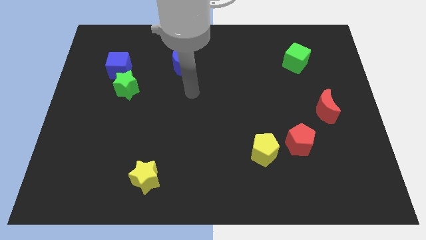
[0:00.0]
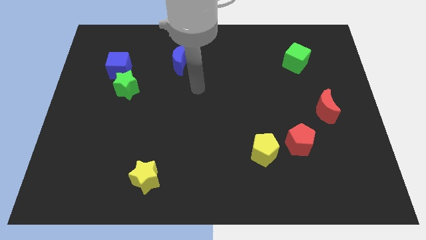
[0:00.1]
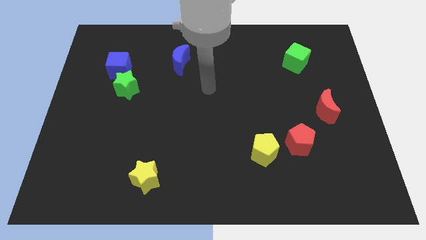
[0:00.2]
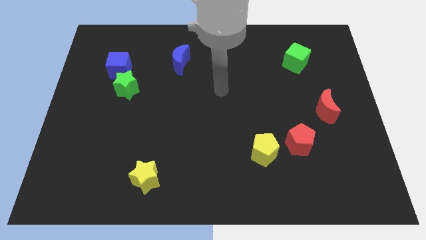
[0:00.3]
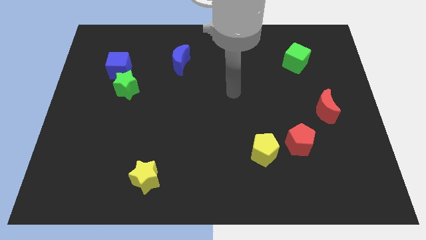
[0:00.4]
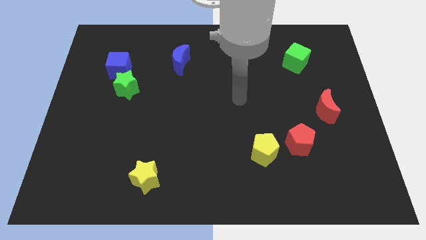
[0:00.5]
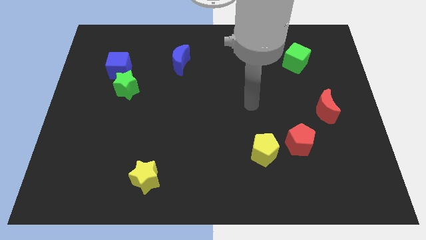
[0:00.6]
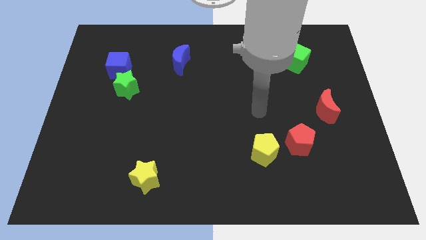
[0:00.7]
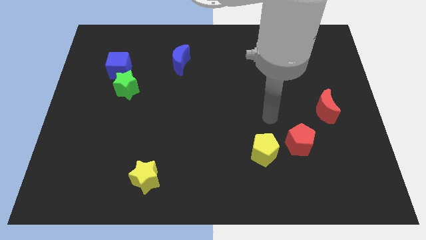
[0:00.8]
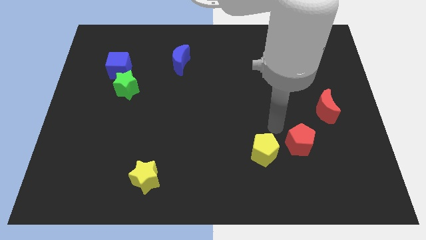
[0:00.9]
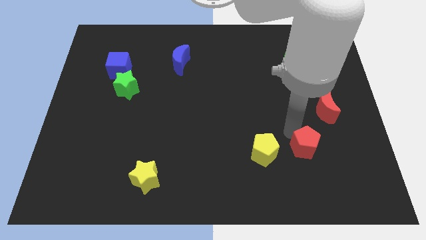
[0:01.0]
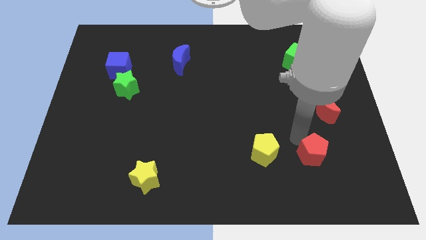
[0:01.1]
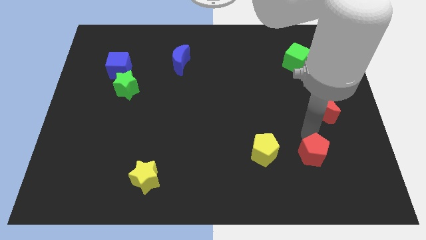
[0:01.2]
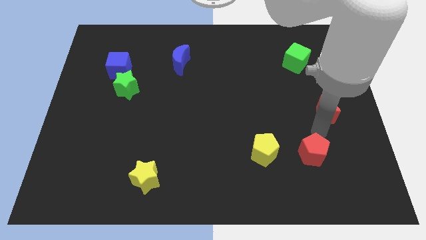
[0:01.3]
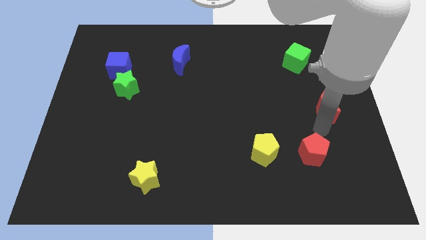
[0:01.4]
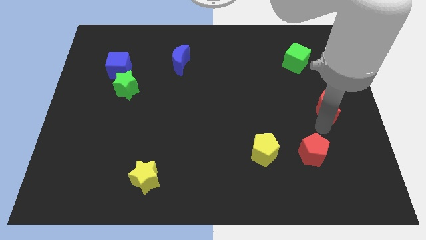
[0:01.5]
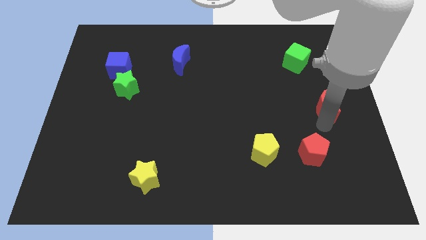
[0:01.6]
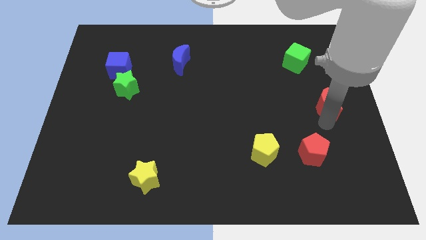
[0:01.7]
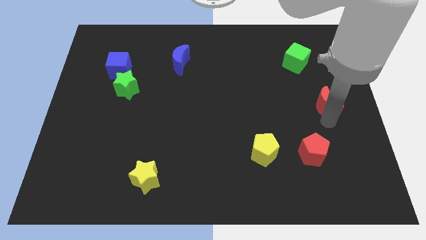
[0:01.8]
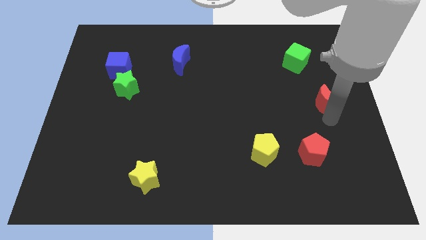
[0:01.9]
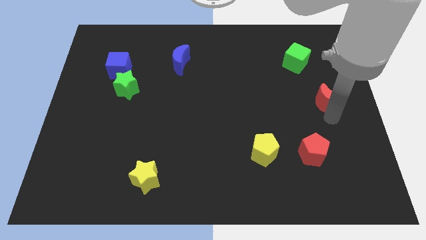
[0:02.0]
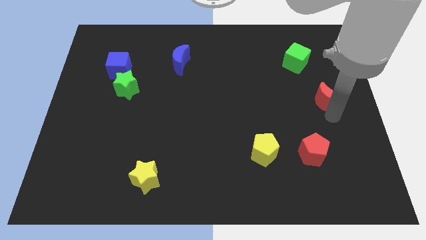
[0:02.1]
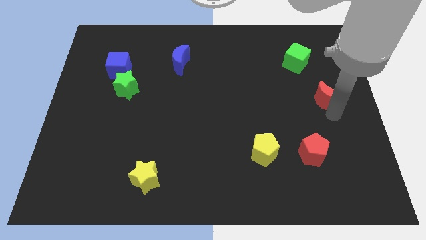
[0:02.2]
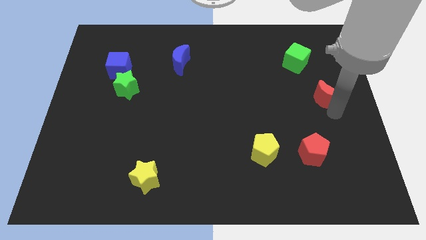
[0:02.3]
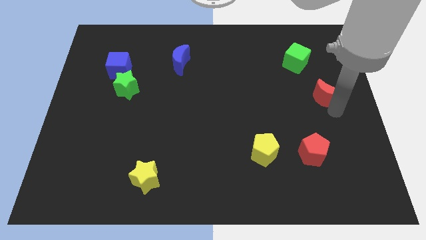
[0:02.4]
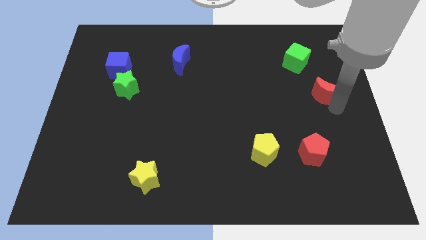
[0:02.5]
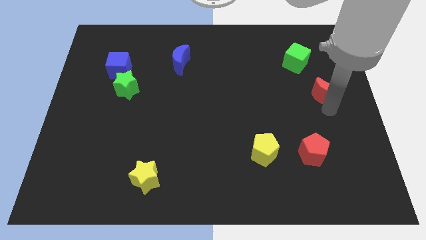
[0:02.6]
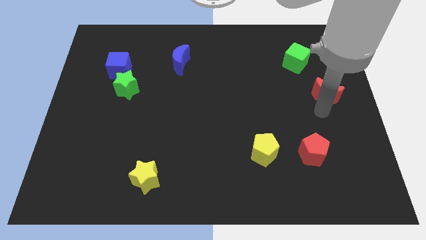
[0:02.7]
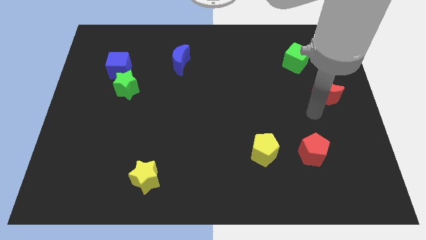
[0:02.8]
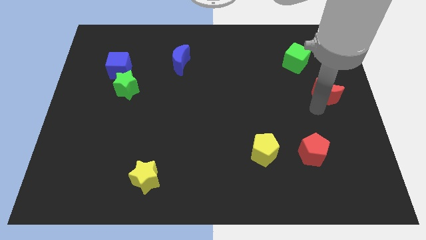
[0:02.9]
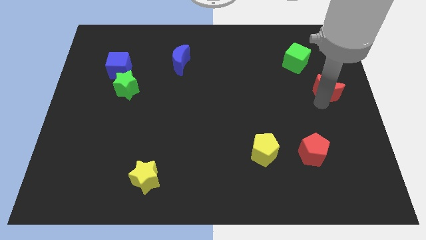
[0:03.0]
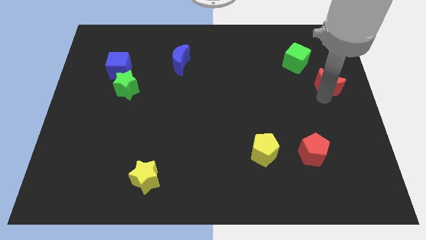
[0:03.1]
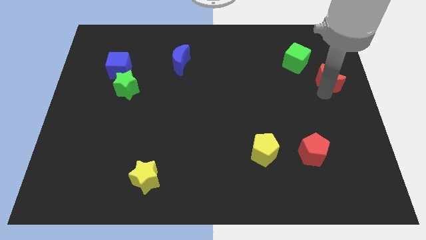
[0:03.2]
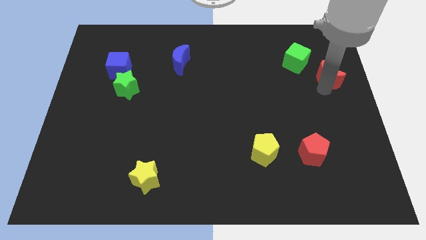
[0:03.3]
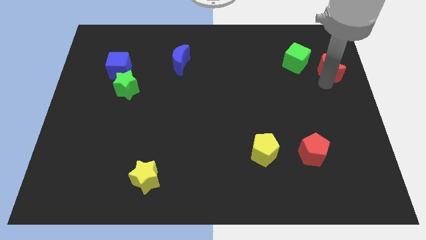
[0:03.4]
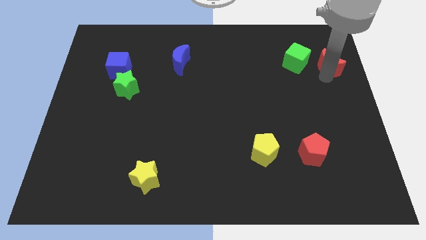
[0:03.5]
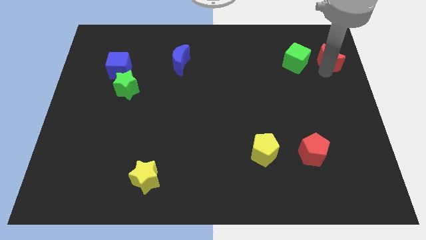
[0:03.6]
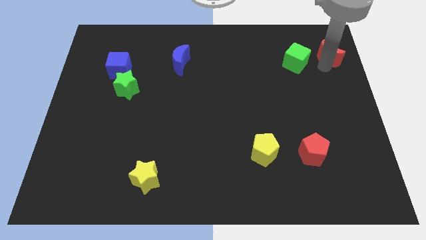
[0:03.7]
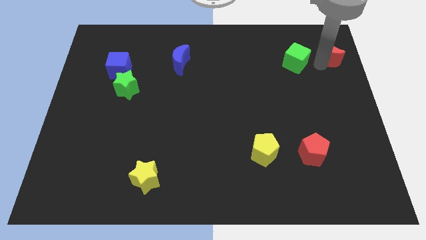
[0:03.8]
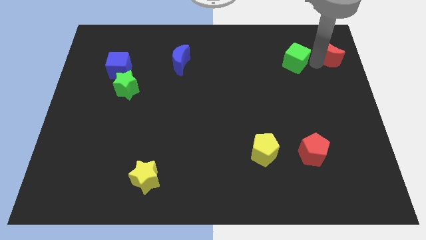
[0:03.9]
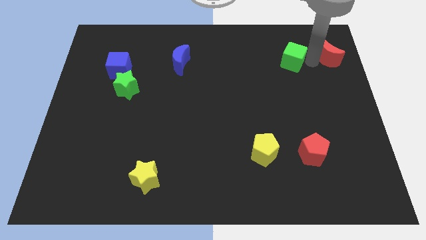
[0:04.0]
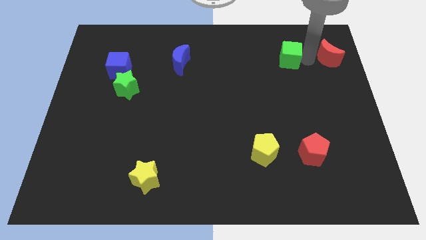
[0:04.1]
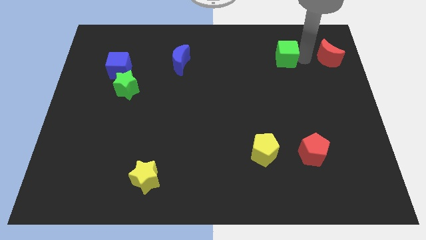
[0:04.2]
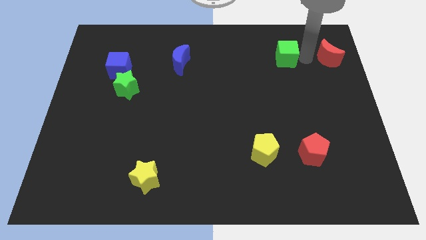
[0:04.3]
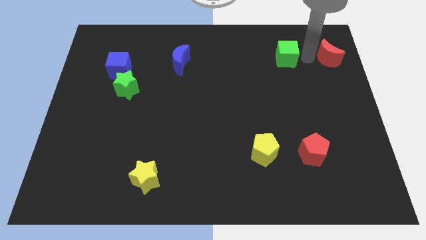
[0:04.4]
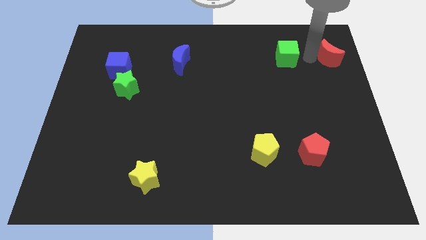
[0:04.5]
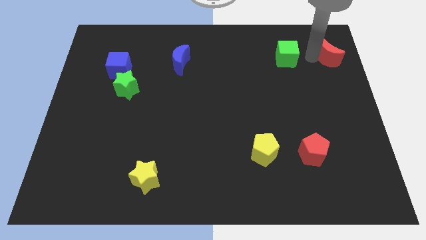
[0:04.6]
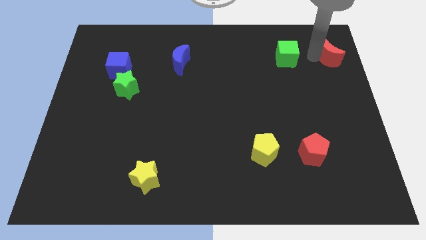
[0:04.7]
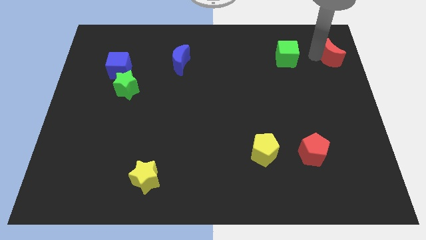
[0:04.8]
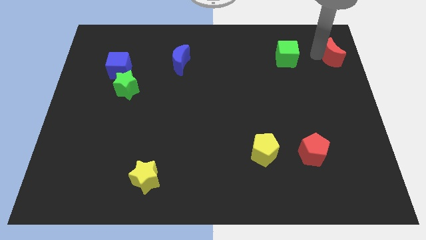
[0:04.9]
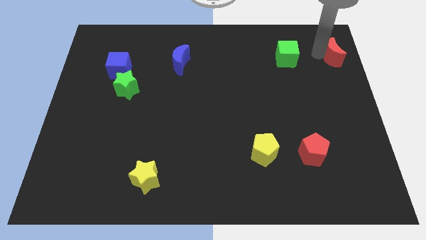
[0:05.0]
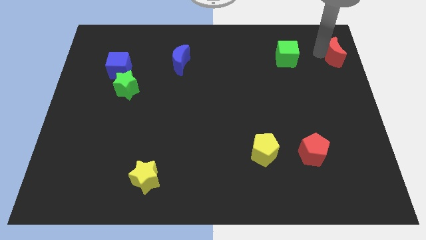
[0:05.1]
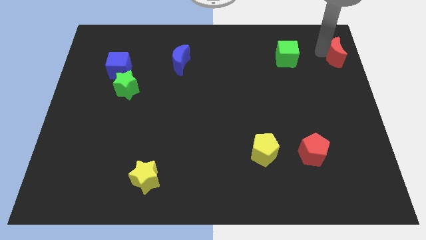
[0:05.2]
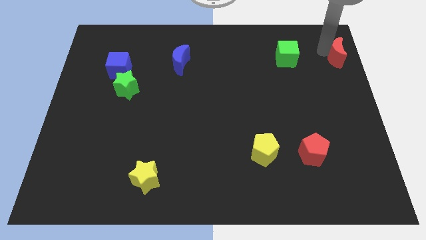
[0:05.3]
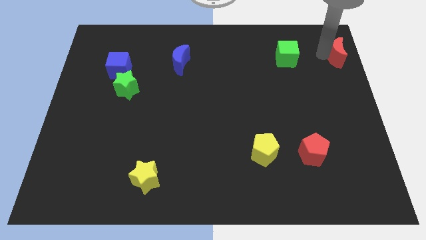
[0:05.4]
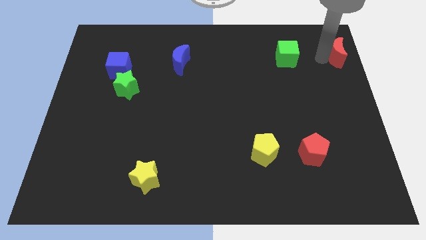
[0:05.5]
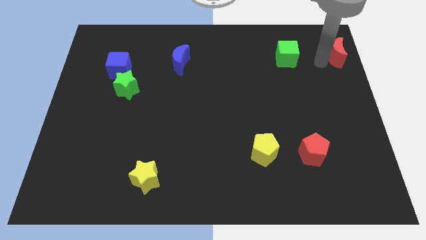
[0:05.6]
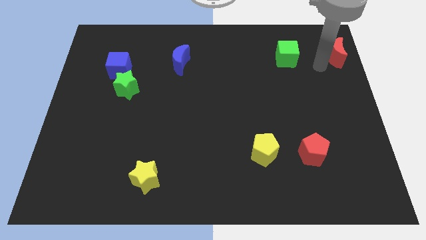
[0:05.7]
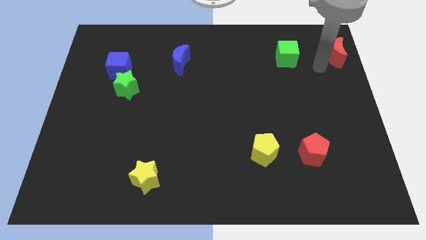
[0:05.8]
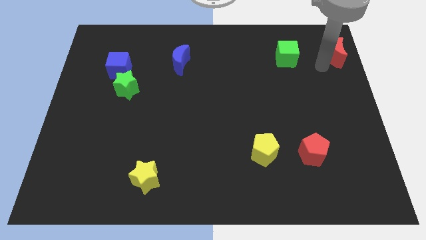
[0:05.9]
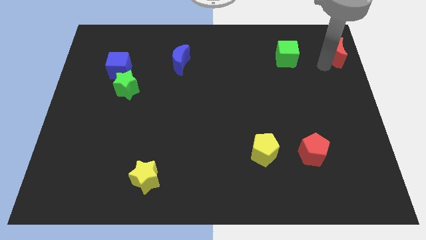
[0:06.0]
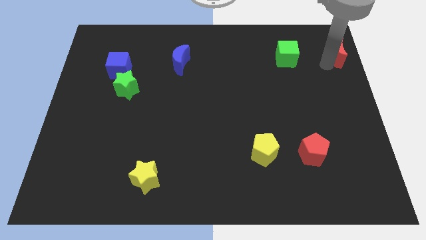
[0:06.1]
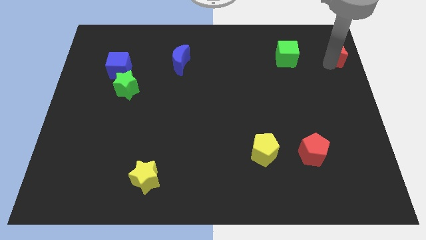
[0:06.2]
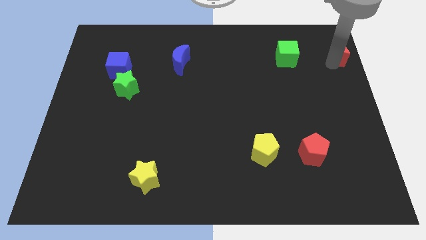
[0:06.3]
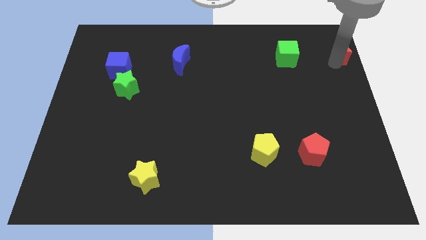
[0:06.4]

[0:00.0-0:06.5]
push the red moon to the top right of the board
